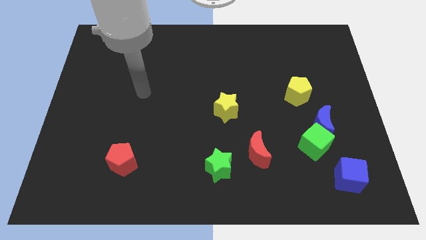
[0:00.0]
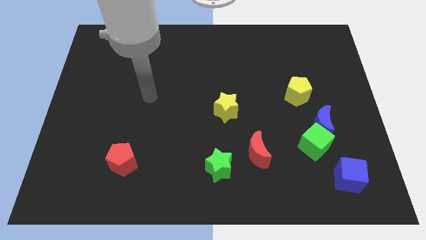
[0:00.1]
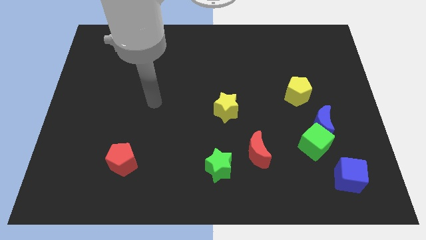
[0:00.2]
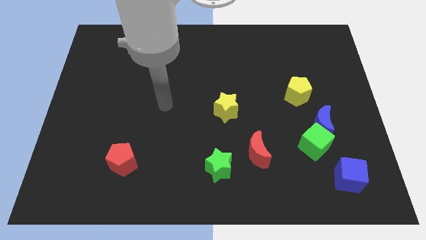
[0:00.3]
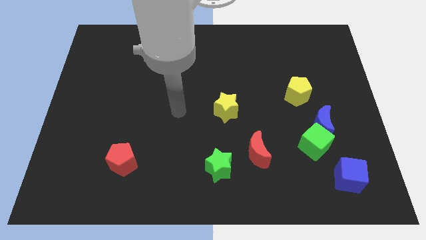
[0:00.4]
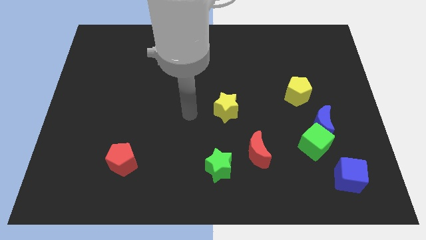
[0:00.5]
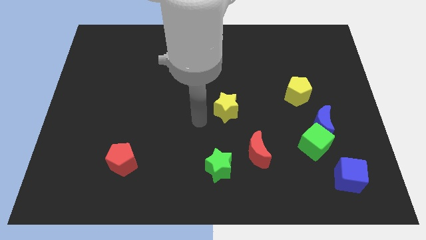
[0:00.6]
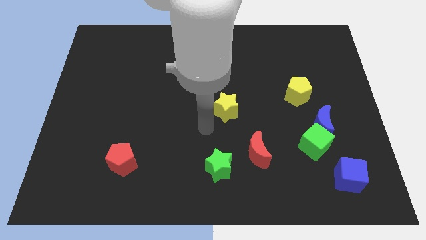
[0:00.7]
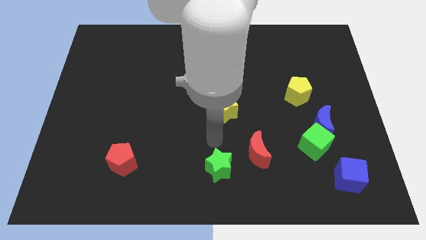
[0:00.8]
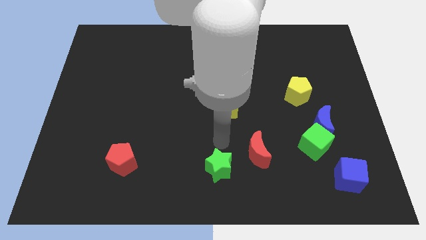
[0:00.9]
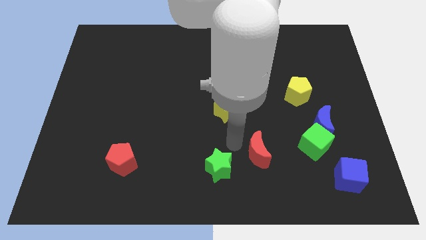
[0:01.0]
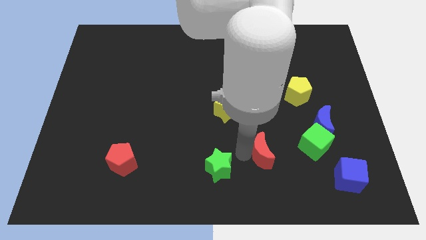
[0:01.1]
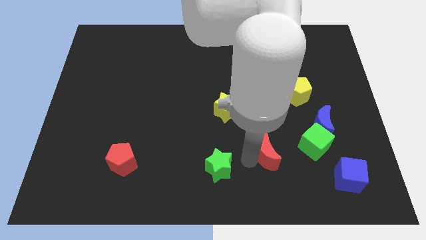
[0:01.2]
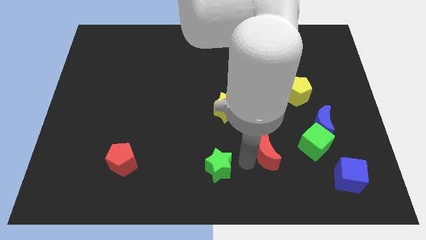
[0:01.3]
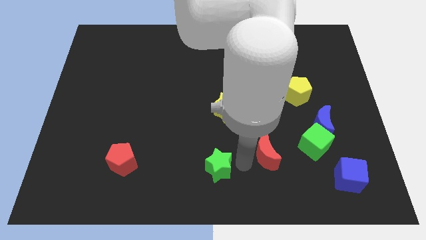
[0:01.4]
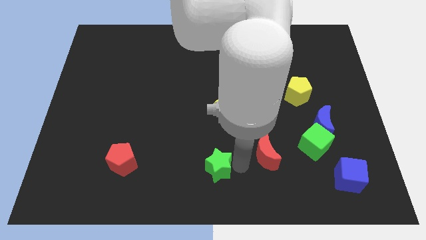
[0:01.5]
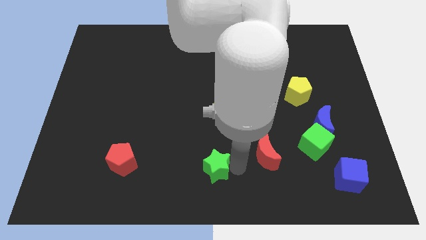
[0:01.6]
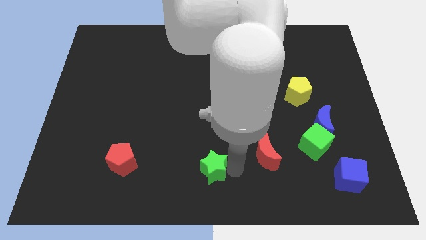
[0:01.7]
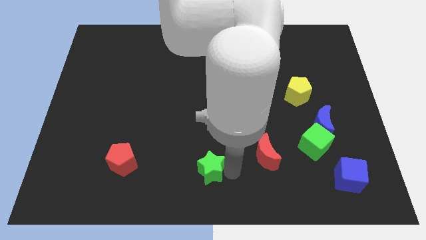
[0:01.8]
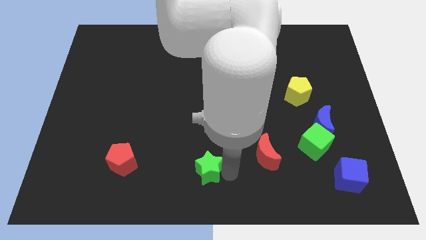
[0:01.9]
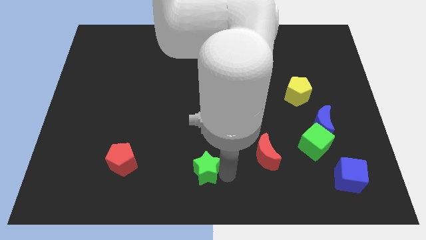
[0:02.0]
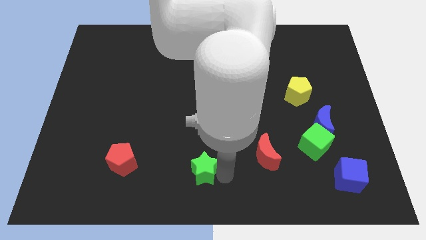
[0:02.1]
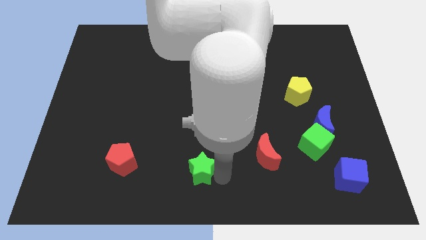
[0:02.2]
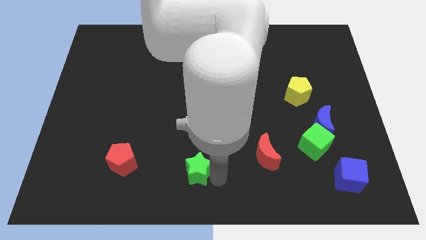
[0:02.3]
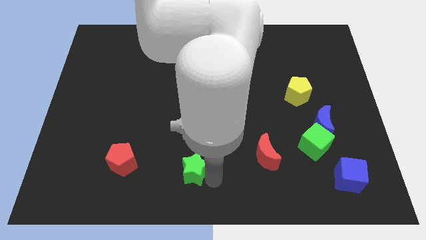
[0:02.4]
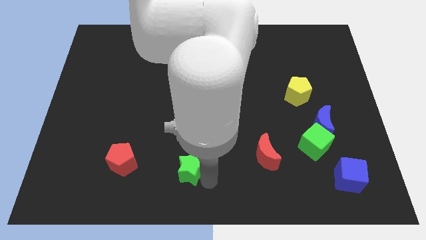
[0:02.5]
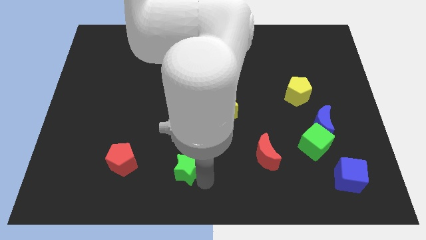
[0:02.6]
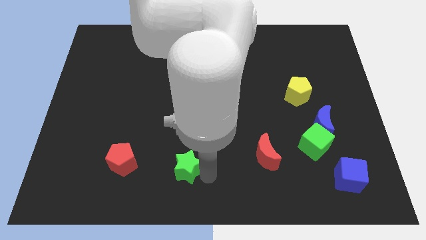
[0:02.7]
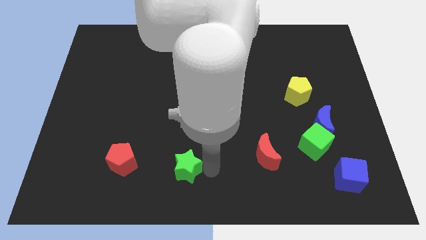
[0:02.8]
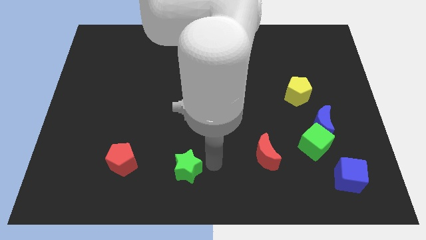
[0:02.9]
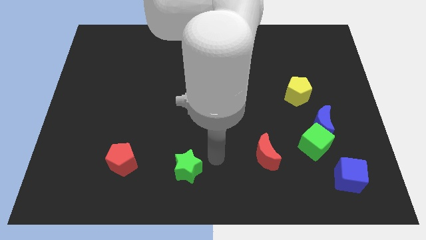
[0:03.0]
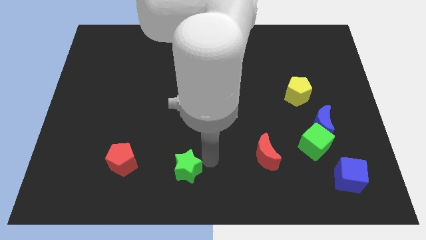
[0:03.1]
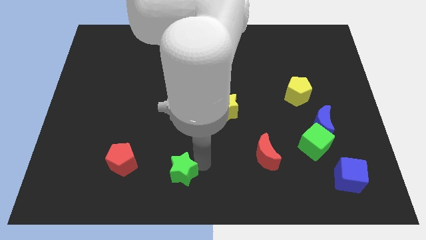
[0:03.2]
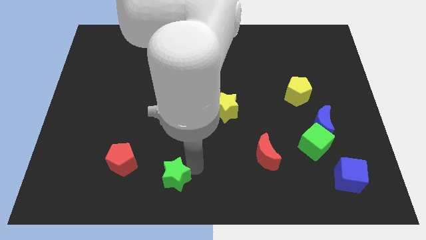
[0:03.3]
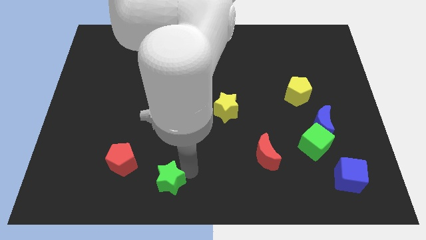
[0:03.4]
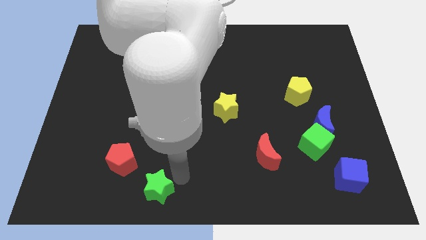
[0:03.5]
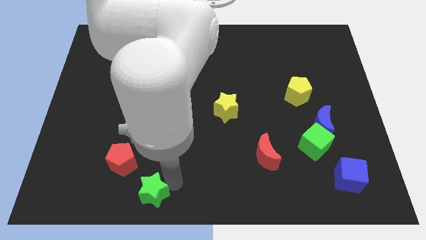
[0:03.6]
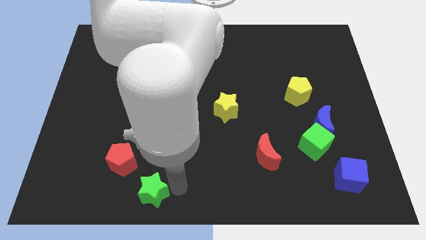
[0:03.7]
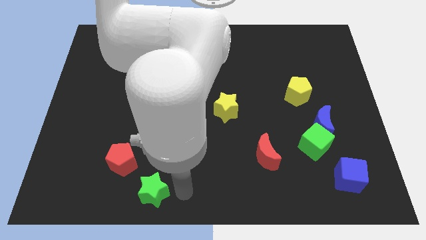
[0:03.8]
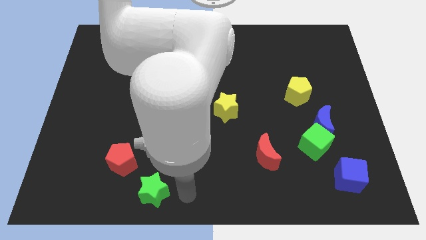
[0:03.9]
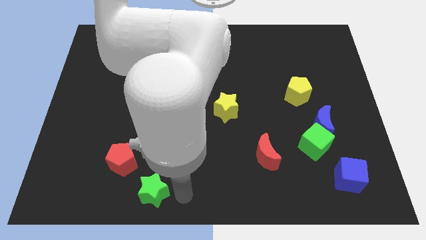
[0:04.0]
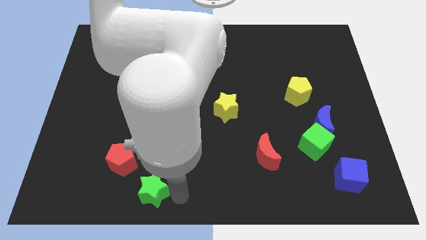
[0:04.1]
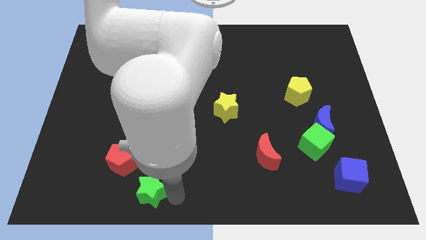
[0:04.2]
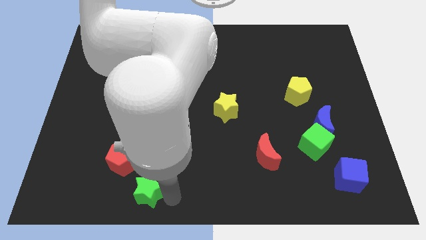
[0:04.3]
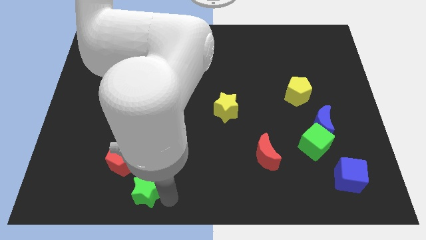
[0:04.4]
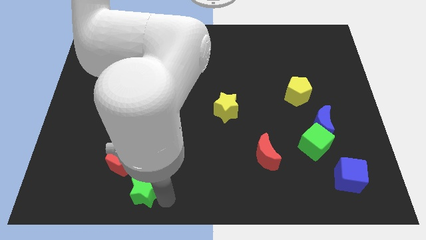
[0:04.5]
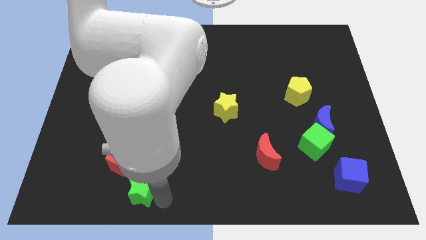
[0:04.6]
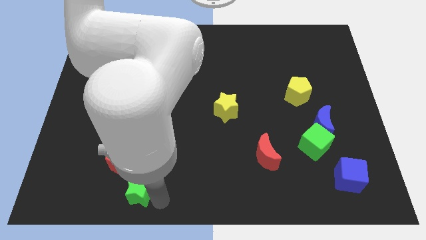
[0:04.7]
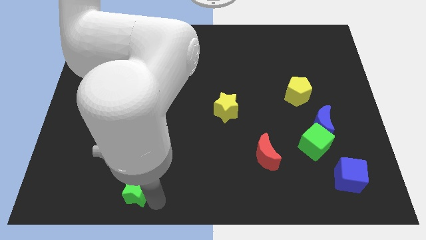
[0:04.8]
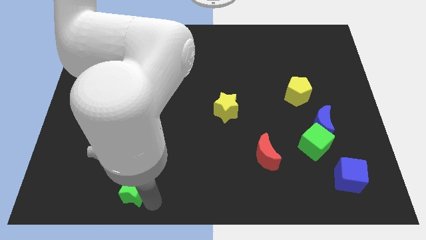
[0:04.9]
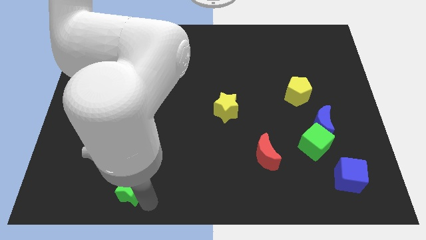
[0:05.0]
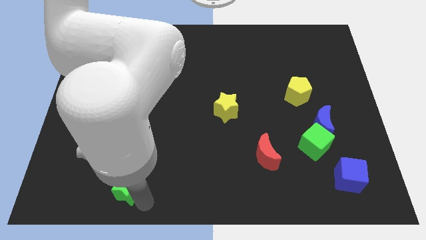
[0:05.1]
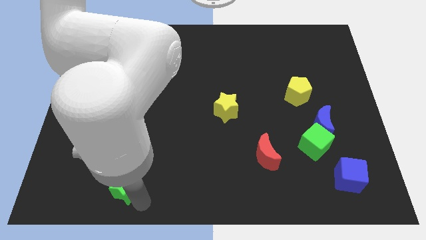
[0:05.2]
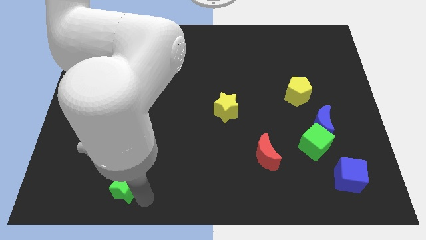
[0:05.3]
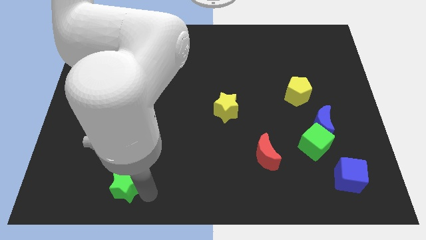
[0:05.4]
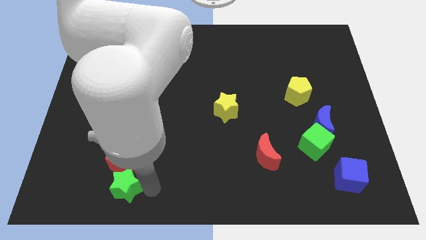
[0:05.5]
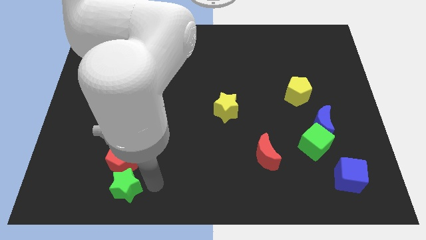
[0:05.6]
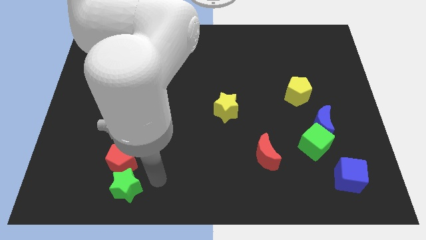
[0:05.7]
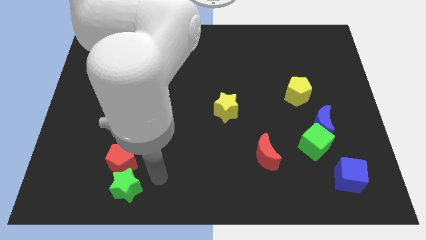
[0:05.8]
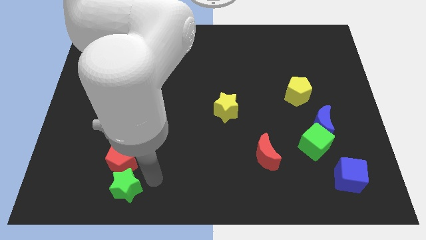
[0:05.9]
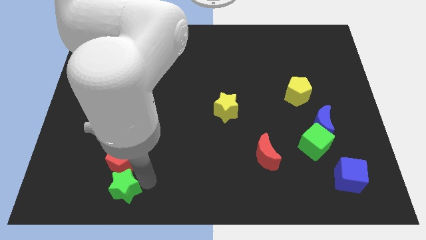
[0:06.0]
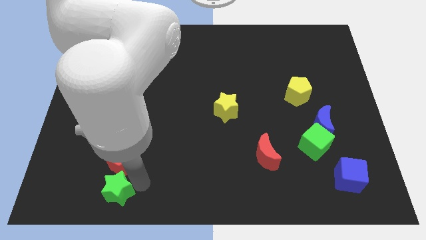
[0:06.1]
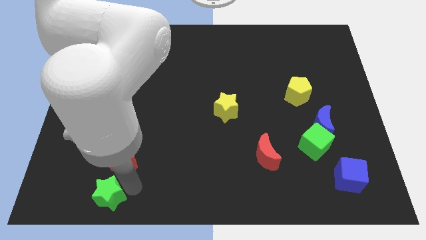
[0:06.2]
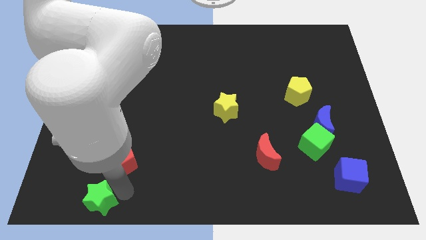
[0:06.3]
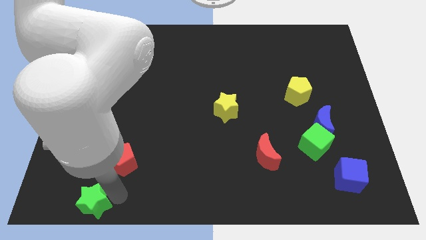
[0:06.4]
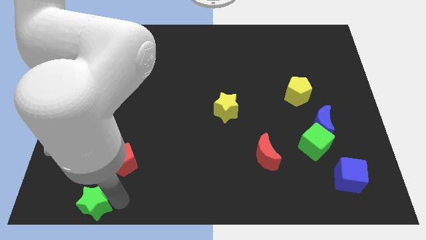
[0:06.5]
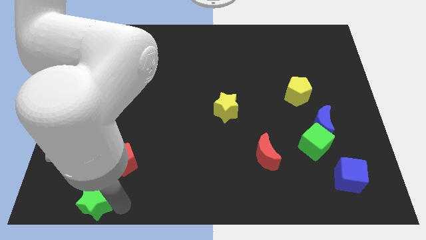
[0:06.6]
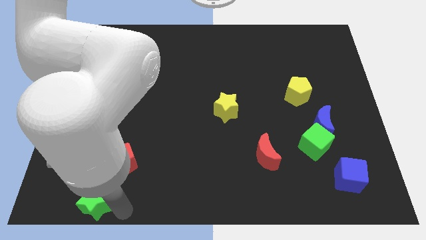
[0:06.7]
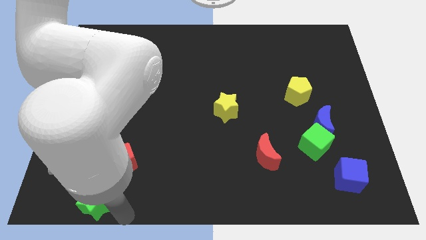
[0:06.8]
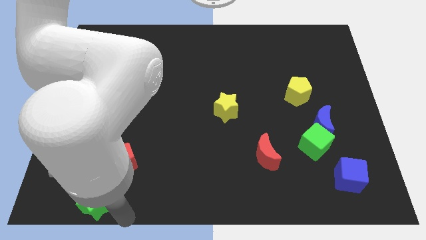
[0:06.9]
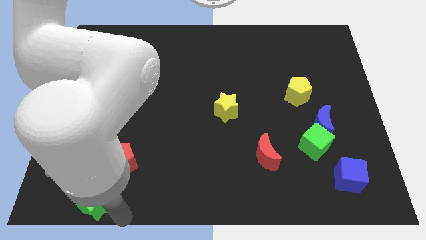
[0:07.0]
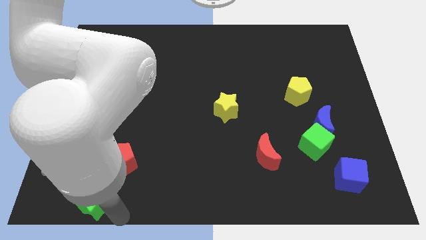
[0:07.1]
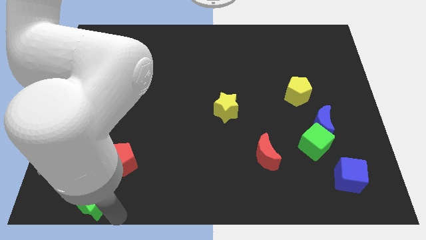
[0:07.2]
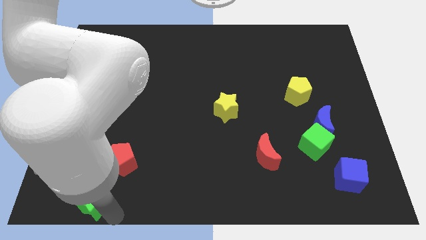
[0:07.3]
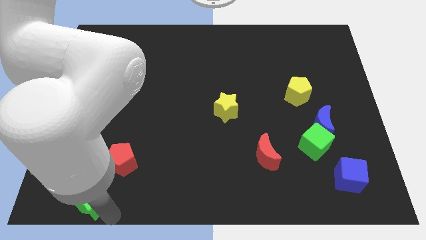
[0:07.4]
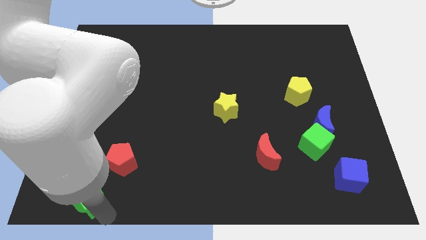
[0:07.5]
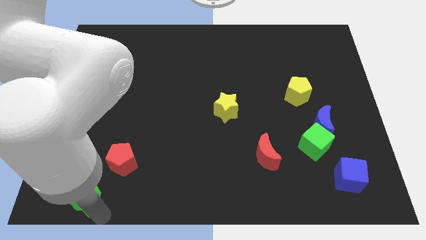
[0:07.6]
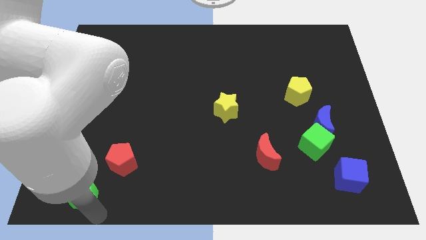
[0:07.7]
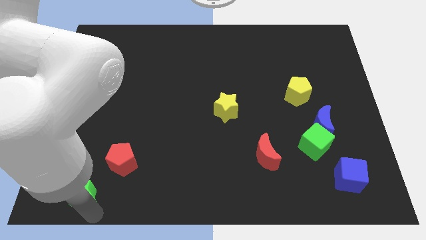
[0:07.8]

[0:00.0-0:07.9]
put the green star to the bottom left of the board
